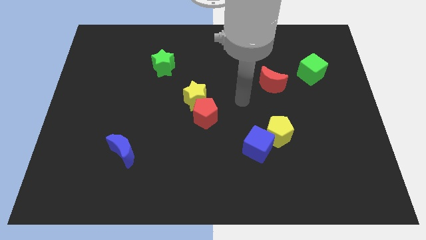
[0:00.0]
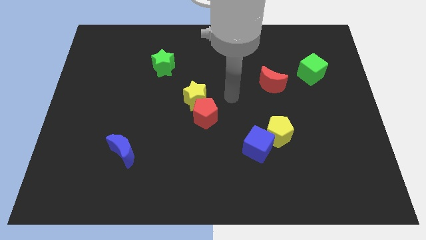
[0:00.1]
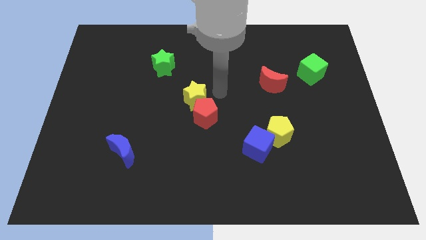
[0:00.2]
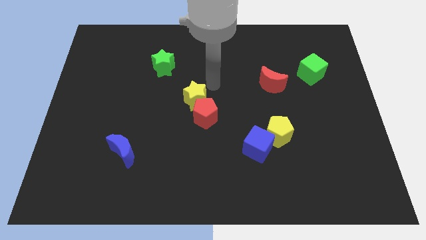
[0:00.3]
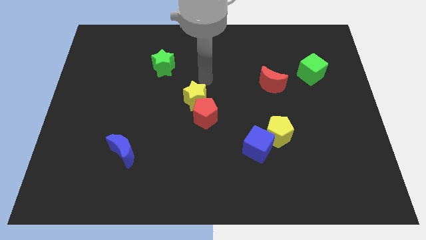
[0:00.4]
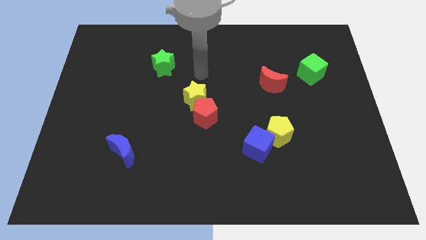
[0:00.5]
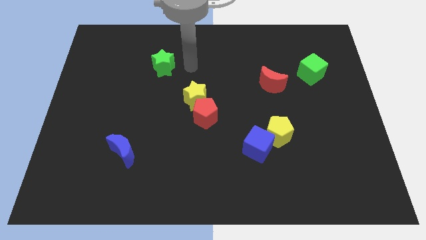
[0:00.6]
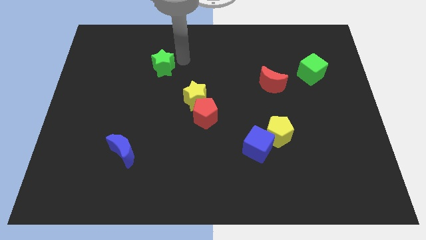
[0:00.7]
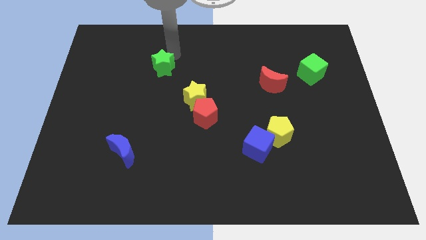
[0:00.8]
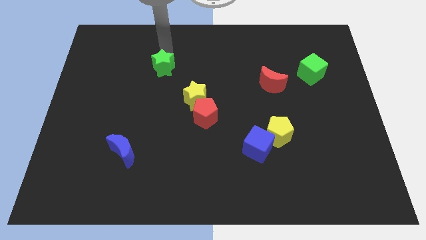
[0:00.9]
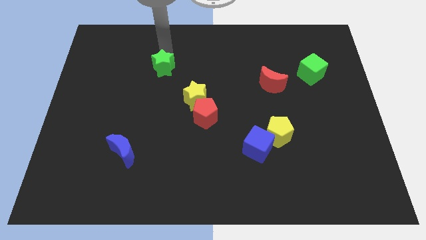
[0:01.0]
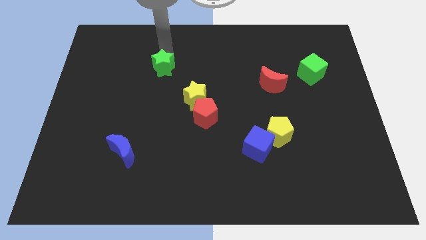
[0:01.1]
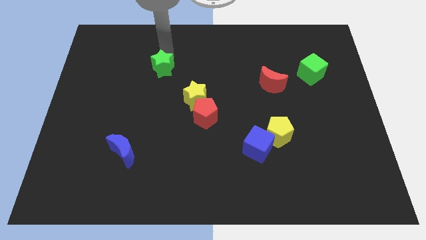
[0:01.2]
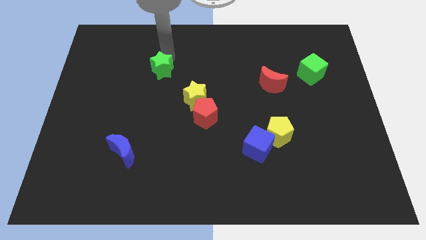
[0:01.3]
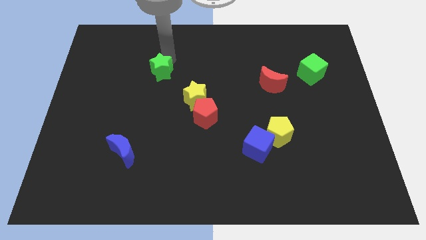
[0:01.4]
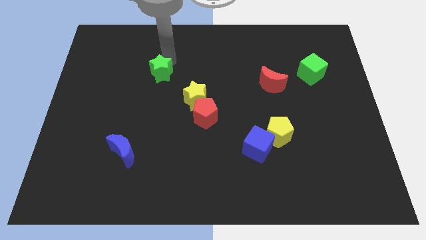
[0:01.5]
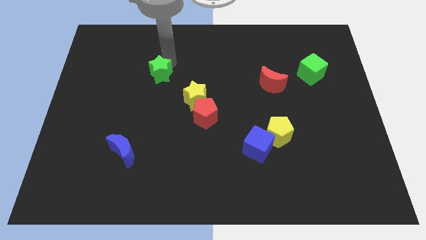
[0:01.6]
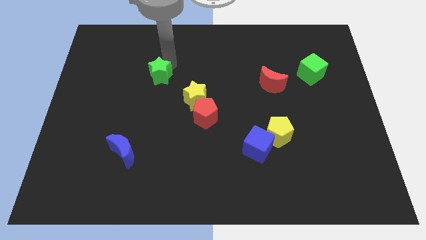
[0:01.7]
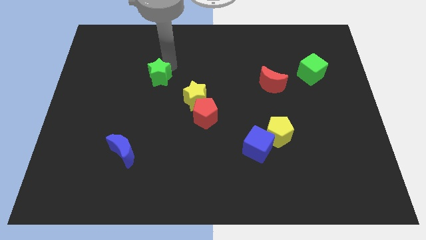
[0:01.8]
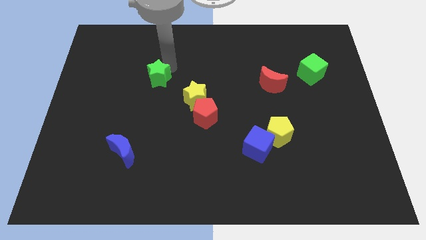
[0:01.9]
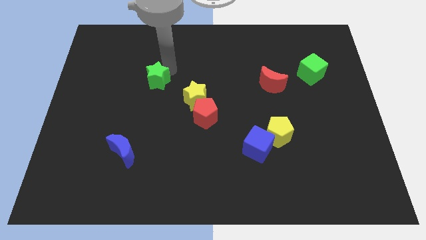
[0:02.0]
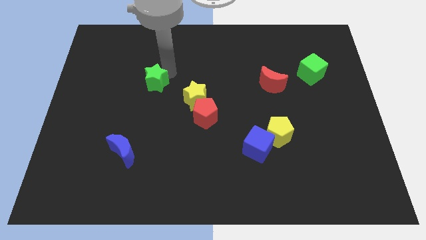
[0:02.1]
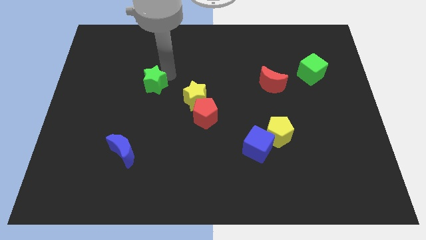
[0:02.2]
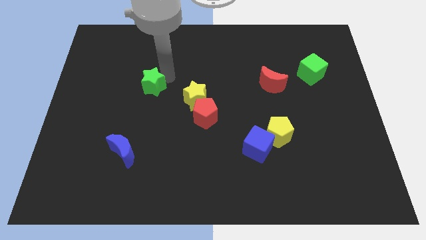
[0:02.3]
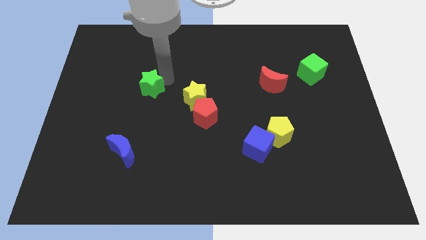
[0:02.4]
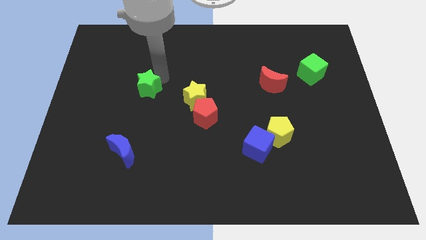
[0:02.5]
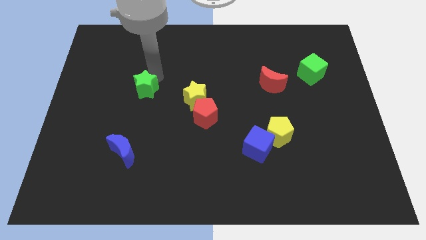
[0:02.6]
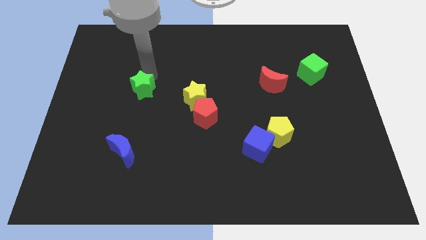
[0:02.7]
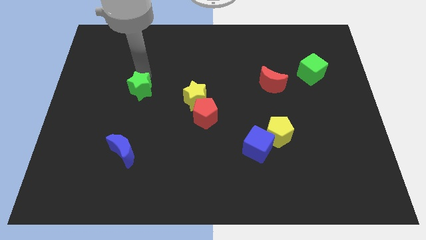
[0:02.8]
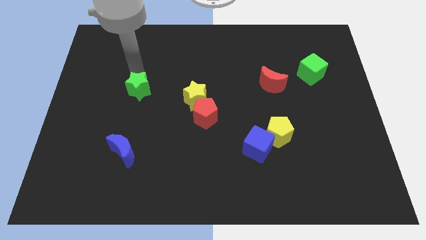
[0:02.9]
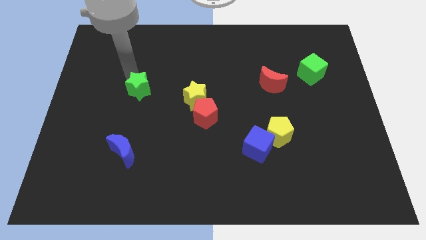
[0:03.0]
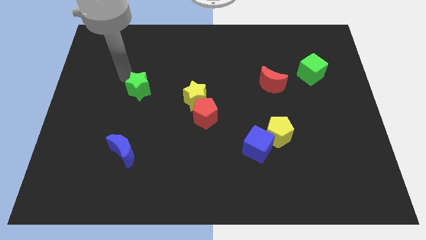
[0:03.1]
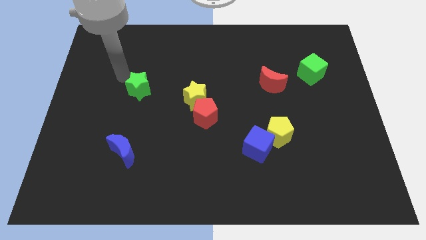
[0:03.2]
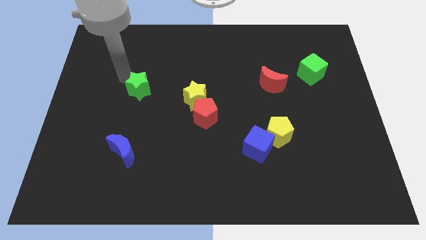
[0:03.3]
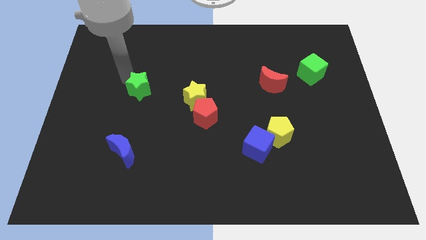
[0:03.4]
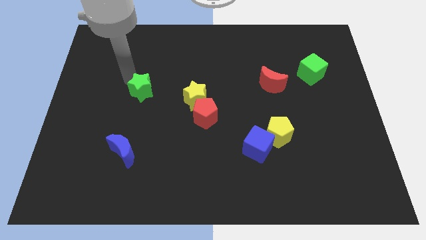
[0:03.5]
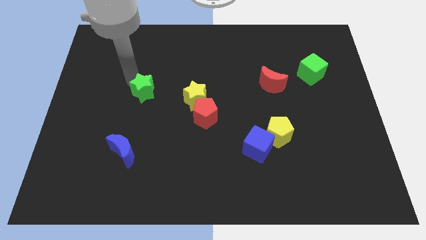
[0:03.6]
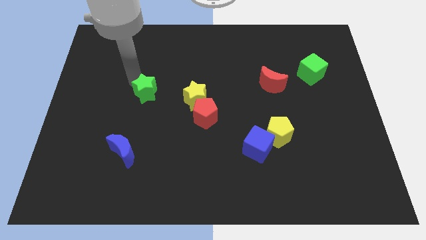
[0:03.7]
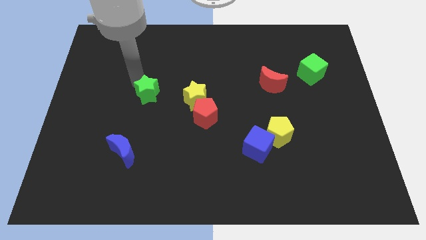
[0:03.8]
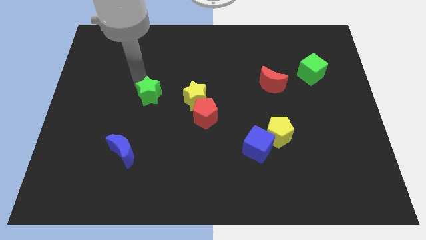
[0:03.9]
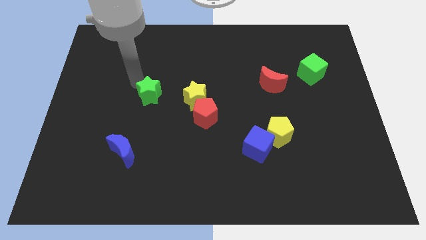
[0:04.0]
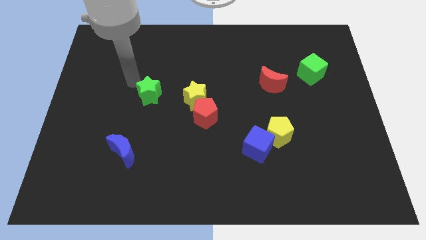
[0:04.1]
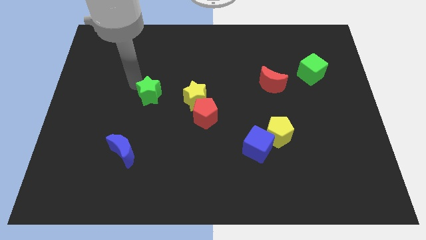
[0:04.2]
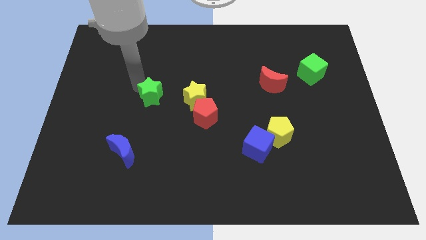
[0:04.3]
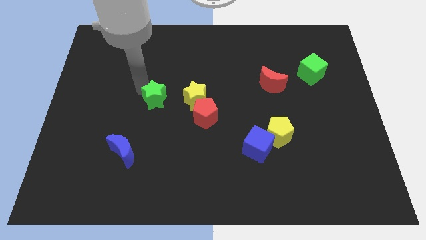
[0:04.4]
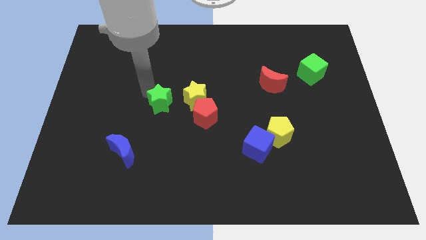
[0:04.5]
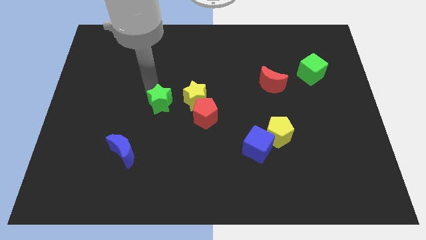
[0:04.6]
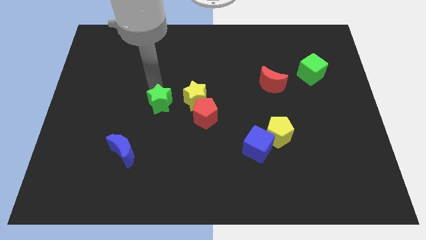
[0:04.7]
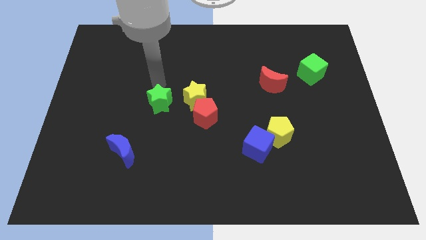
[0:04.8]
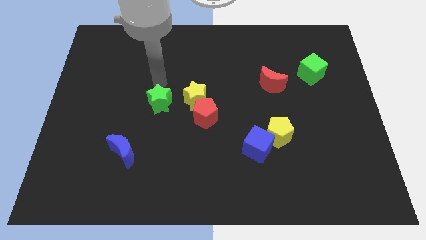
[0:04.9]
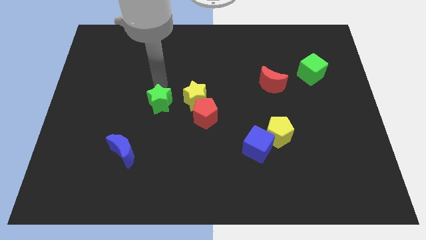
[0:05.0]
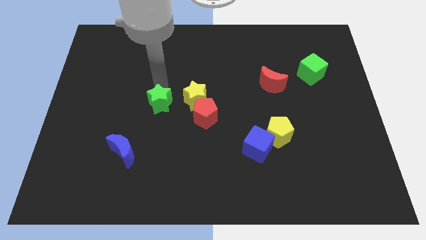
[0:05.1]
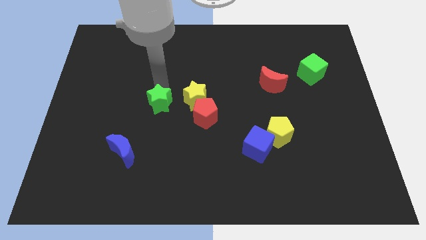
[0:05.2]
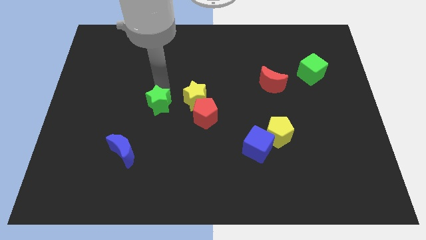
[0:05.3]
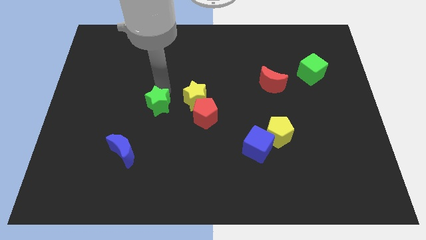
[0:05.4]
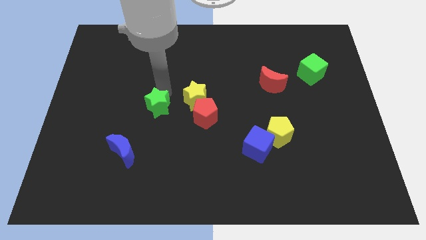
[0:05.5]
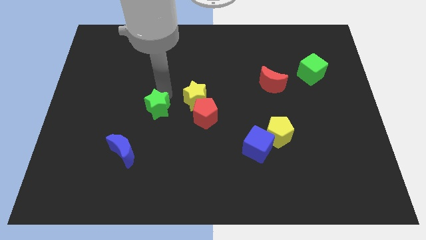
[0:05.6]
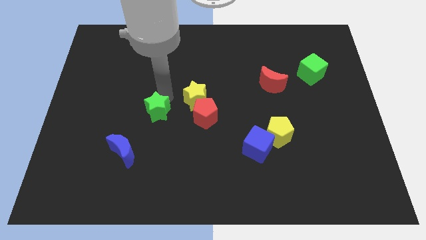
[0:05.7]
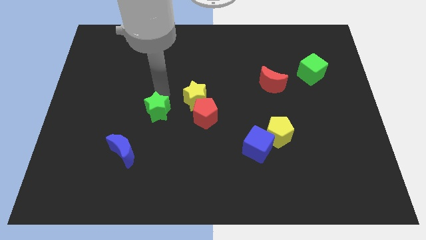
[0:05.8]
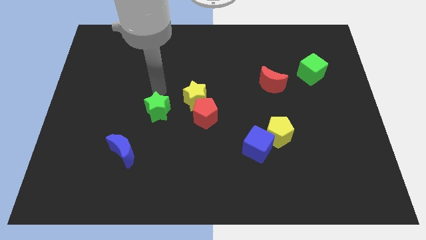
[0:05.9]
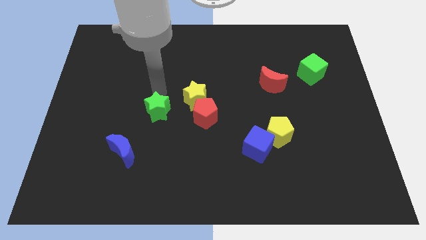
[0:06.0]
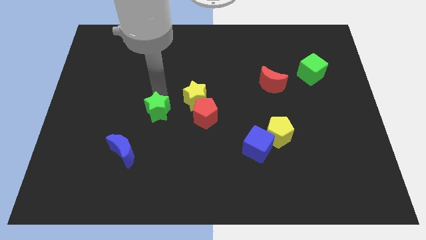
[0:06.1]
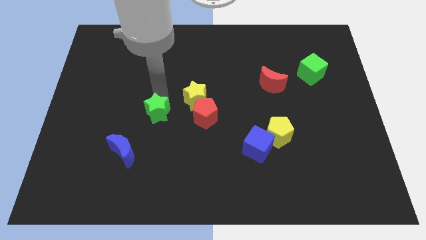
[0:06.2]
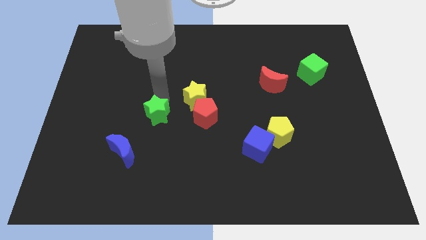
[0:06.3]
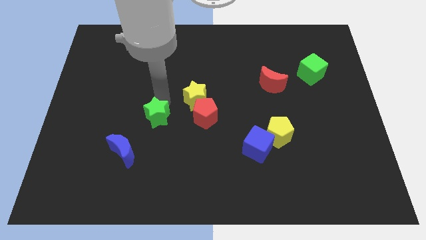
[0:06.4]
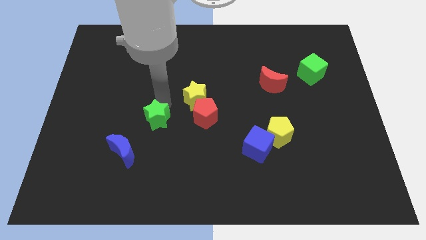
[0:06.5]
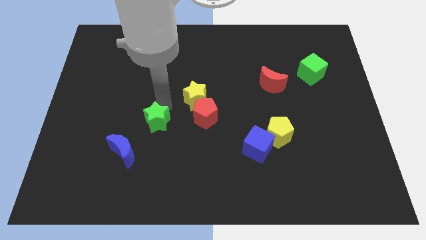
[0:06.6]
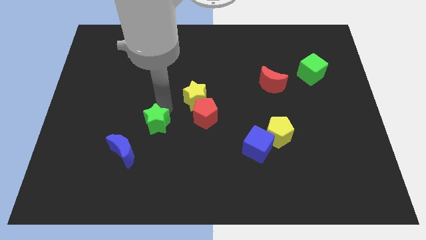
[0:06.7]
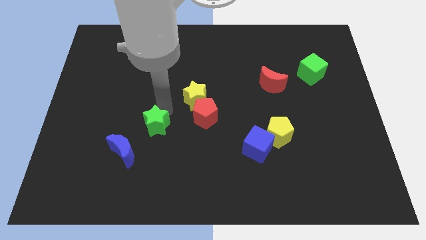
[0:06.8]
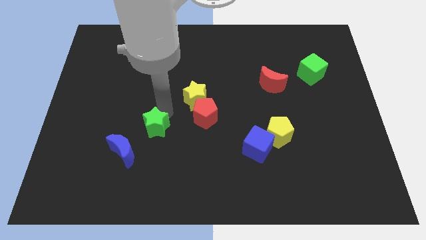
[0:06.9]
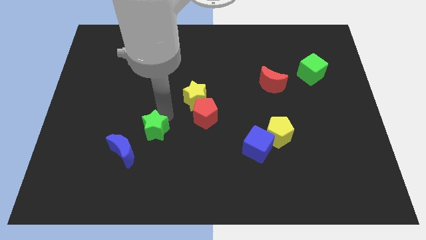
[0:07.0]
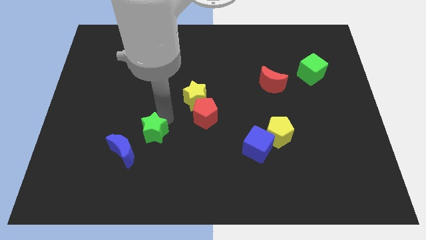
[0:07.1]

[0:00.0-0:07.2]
move the green star downwards

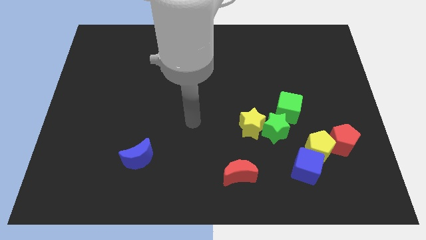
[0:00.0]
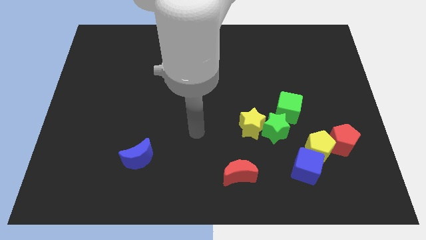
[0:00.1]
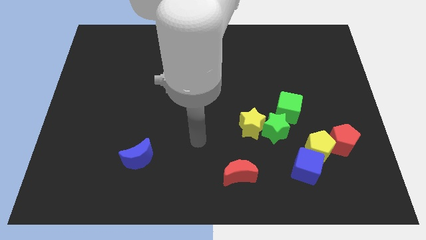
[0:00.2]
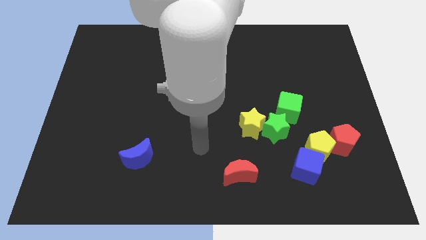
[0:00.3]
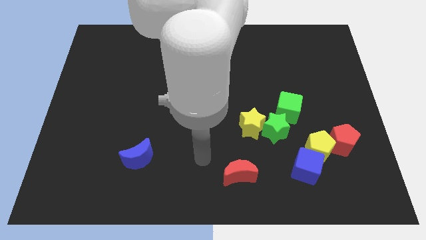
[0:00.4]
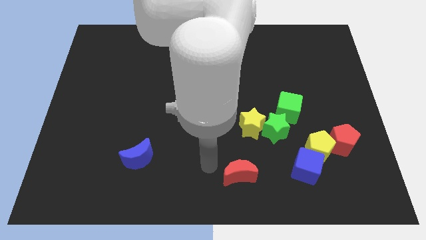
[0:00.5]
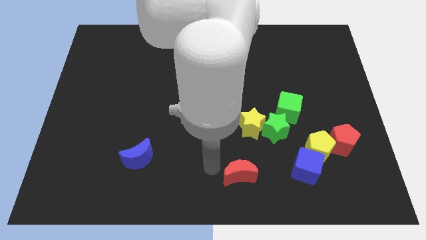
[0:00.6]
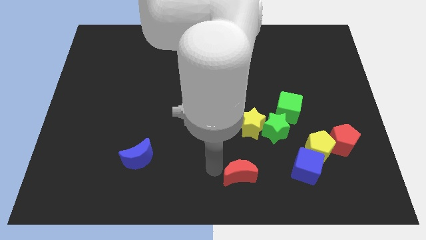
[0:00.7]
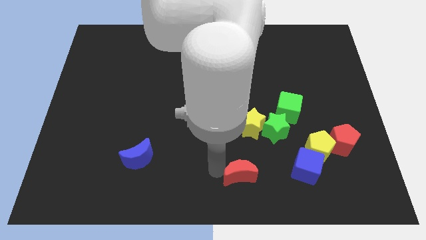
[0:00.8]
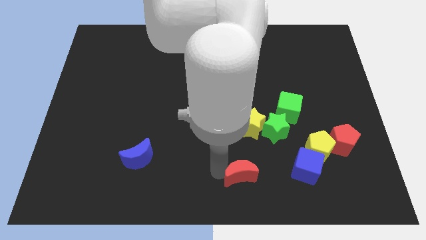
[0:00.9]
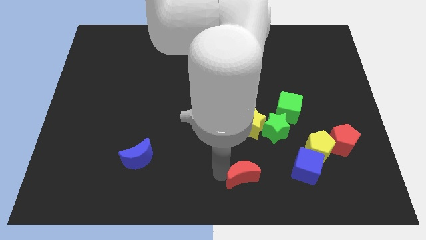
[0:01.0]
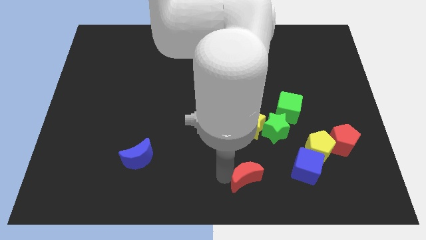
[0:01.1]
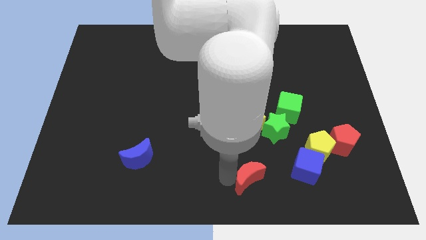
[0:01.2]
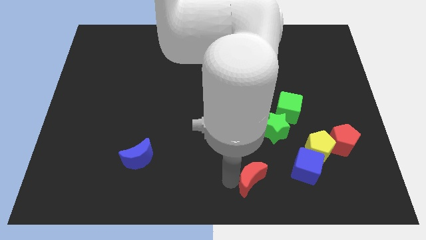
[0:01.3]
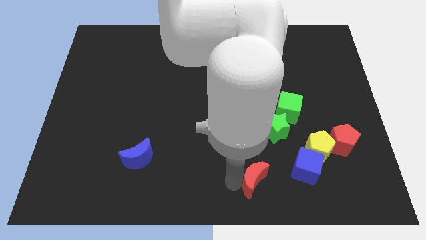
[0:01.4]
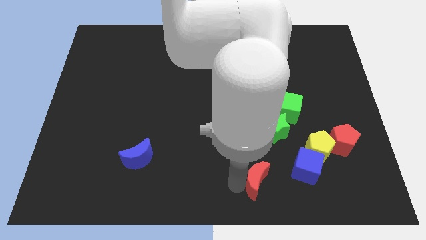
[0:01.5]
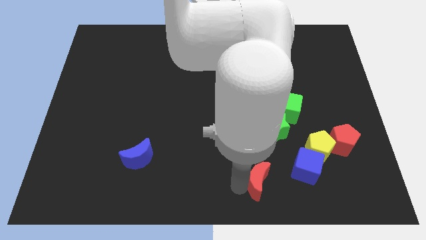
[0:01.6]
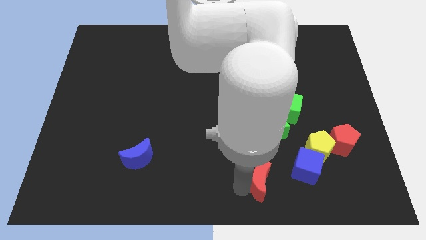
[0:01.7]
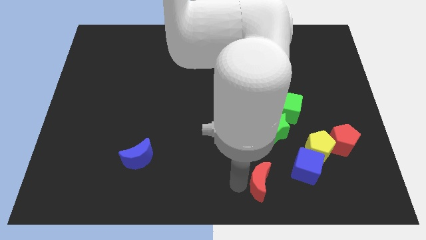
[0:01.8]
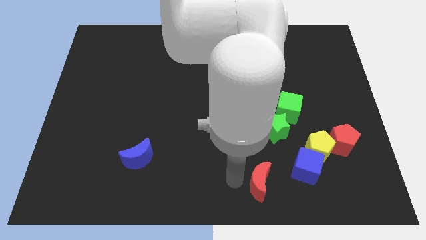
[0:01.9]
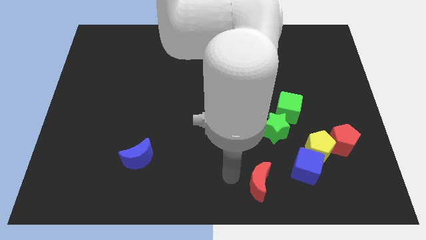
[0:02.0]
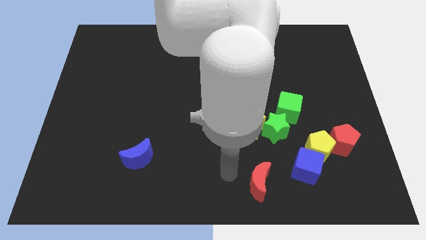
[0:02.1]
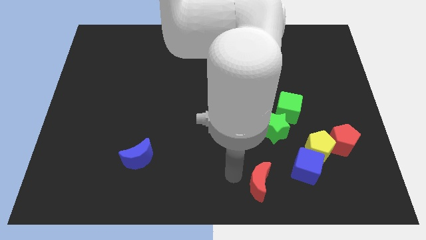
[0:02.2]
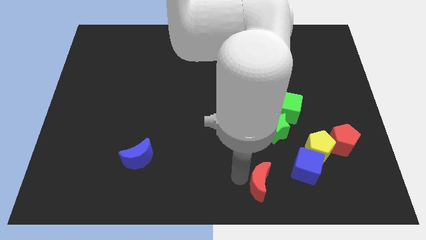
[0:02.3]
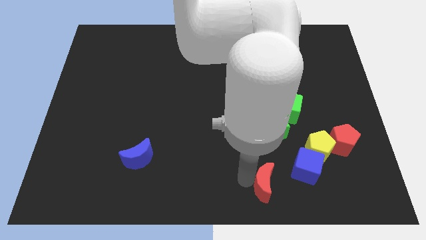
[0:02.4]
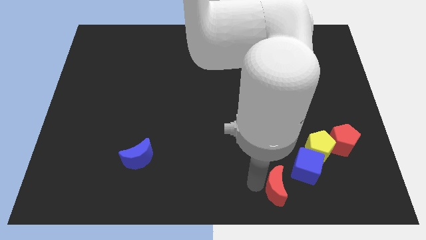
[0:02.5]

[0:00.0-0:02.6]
push the red moon right a little
